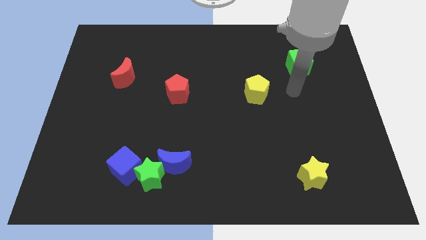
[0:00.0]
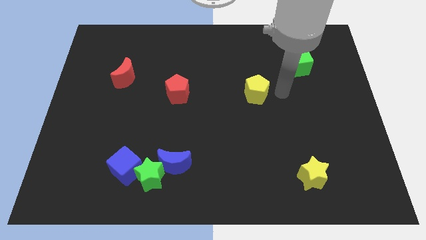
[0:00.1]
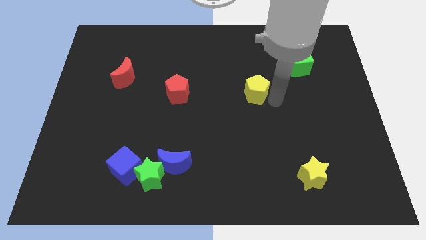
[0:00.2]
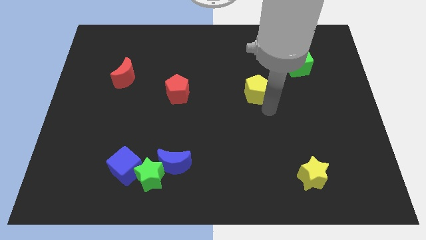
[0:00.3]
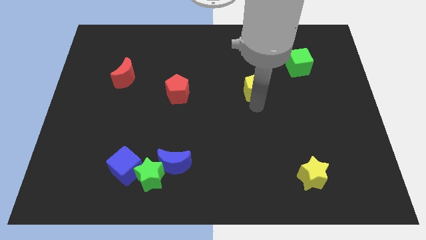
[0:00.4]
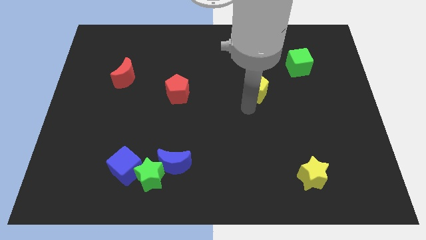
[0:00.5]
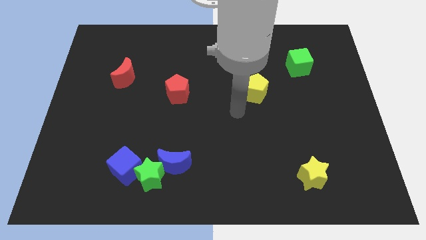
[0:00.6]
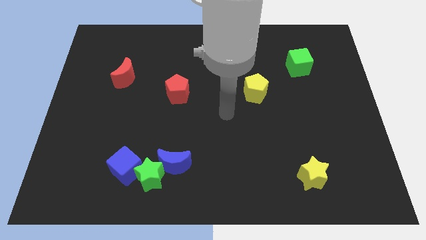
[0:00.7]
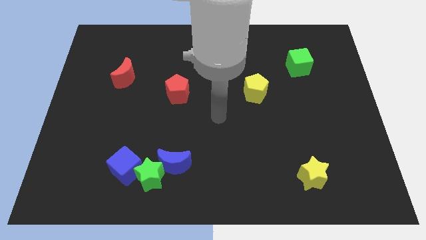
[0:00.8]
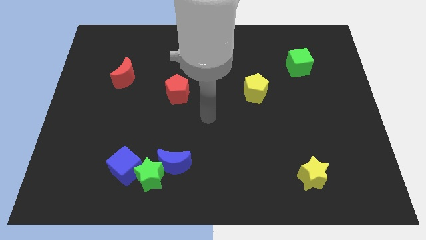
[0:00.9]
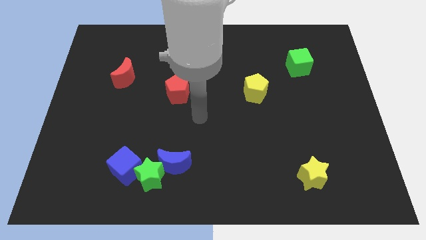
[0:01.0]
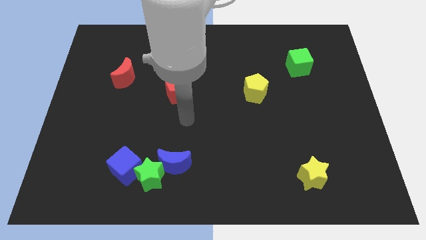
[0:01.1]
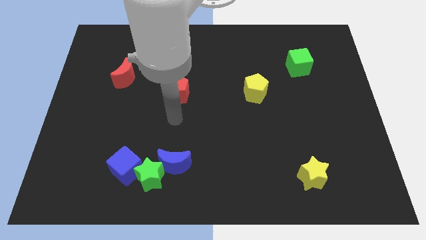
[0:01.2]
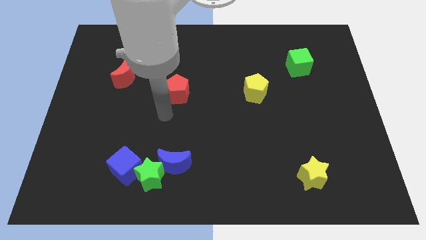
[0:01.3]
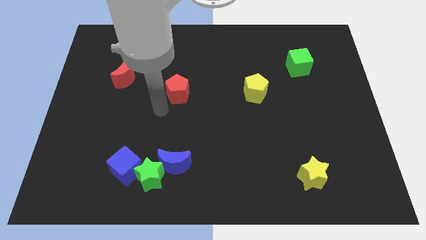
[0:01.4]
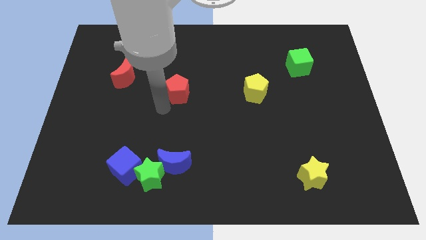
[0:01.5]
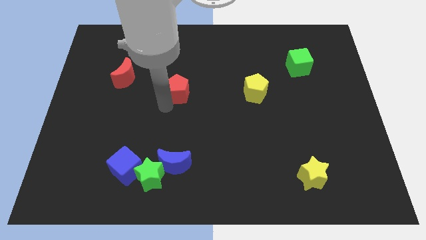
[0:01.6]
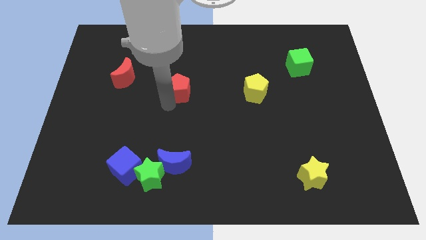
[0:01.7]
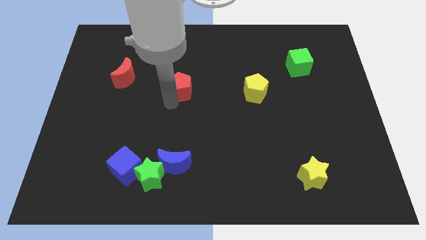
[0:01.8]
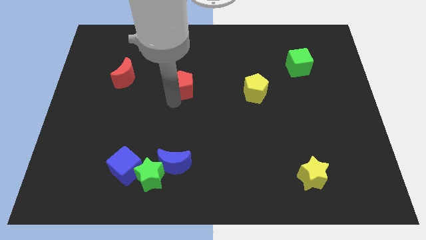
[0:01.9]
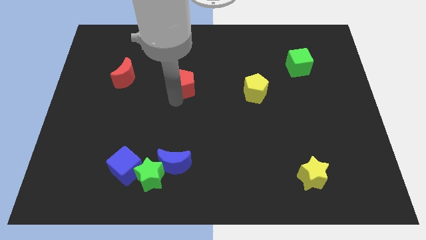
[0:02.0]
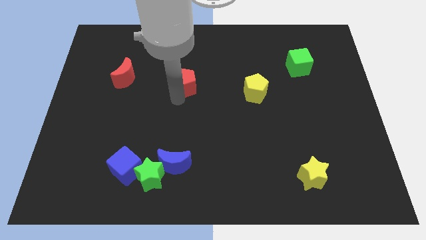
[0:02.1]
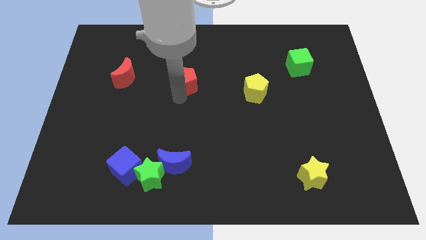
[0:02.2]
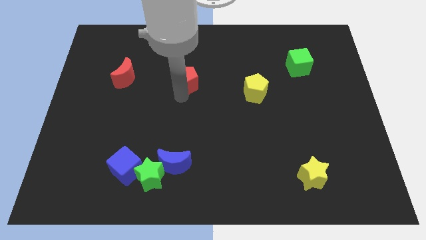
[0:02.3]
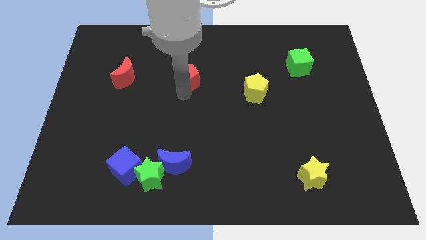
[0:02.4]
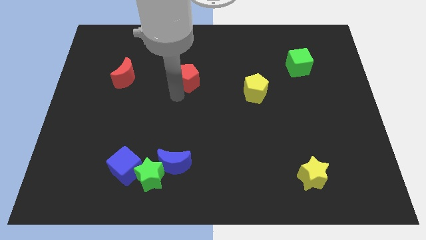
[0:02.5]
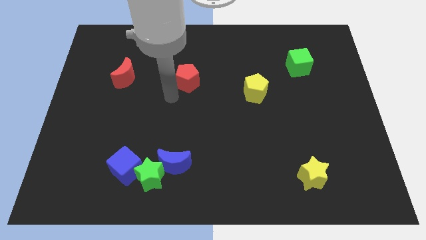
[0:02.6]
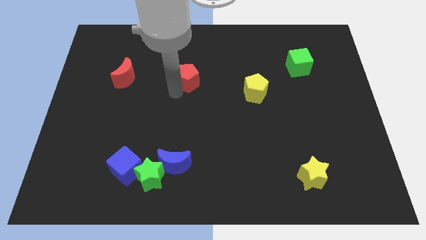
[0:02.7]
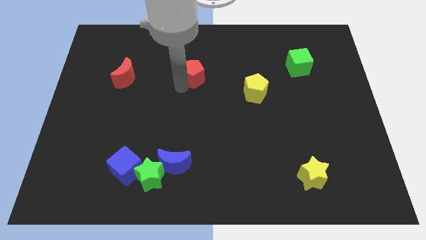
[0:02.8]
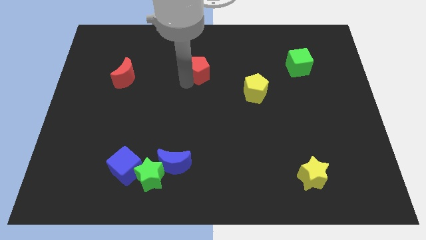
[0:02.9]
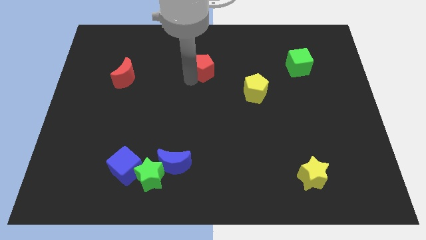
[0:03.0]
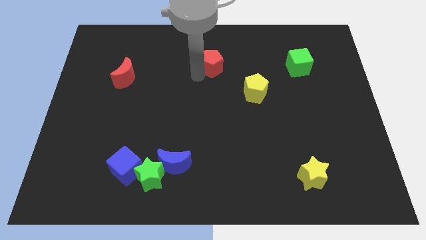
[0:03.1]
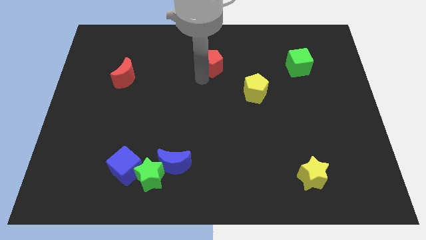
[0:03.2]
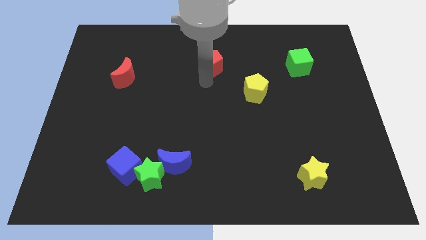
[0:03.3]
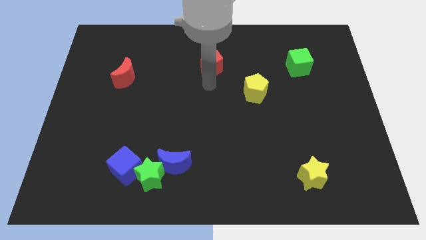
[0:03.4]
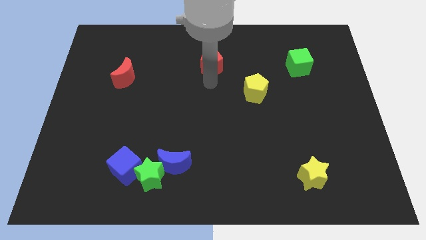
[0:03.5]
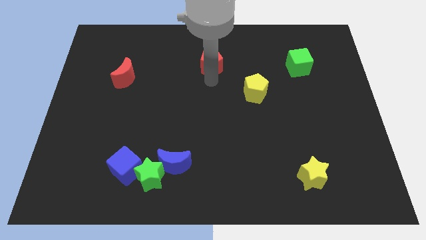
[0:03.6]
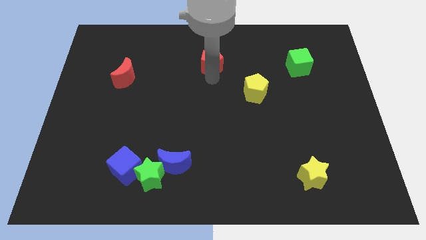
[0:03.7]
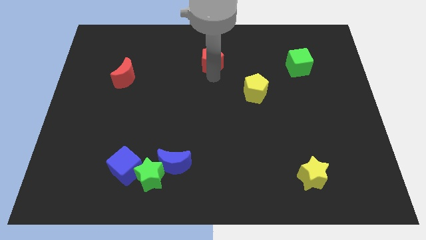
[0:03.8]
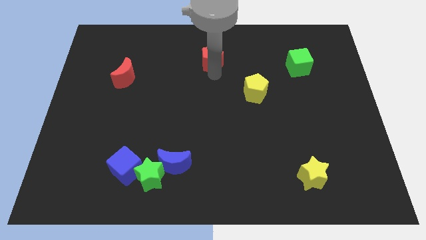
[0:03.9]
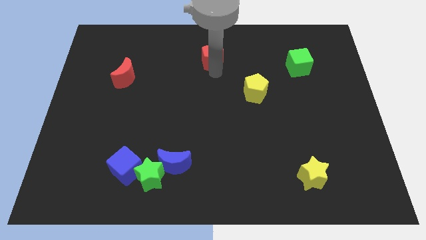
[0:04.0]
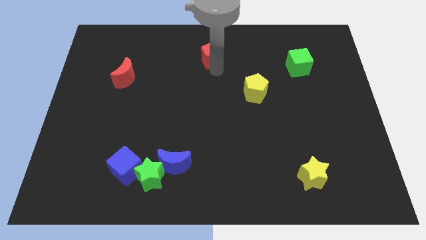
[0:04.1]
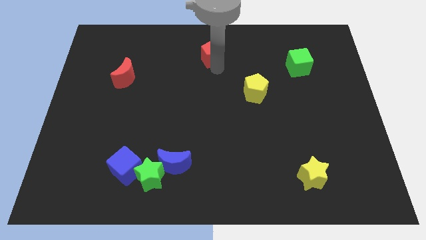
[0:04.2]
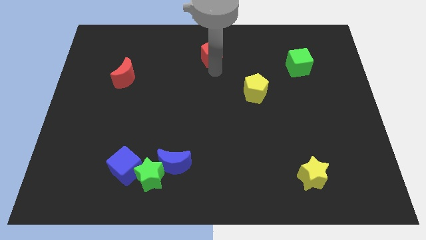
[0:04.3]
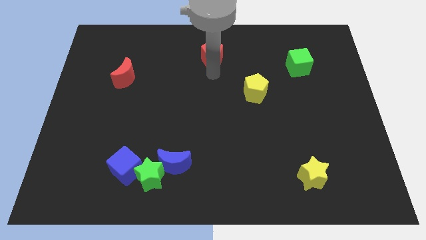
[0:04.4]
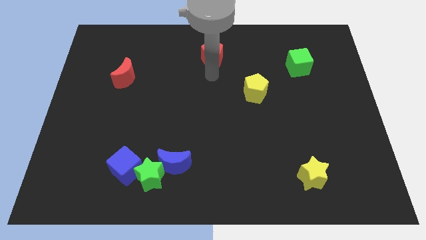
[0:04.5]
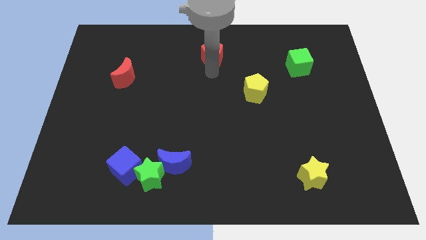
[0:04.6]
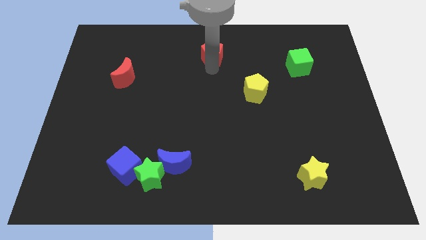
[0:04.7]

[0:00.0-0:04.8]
slide the red pentagon to the top
